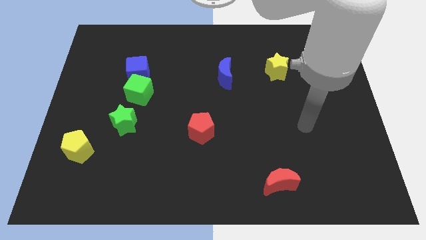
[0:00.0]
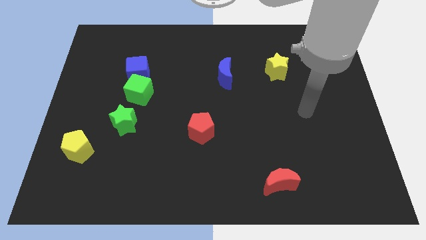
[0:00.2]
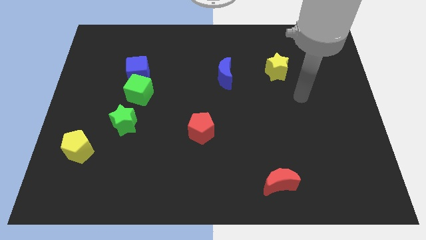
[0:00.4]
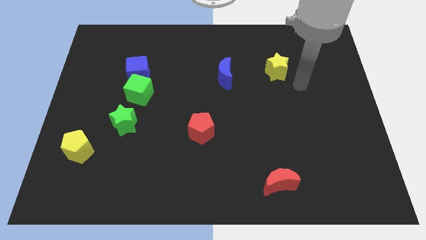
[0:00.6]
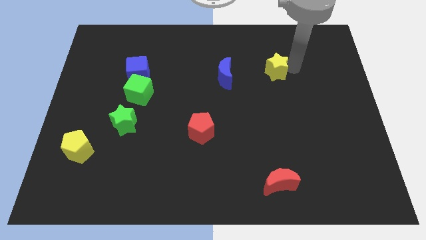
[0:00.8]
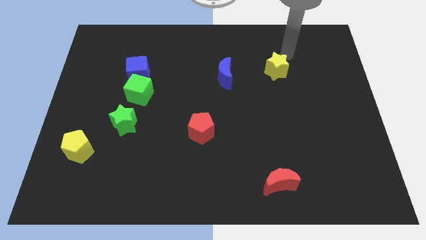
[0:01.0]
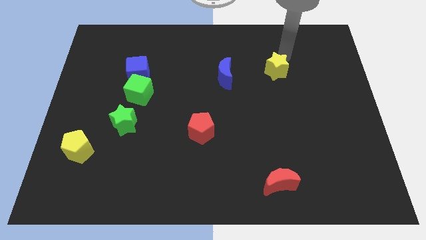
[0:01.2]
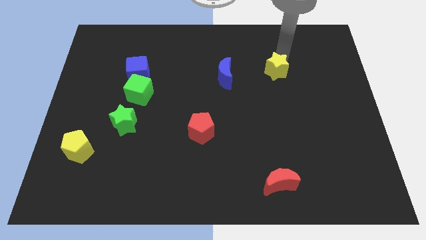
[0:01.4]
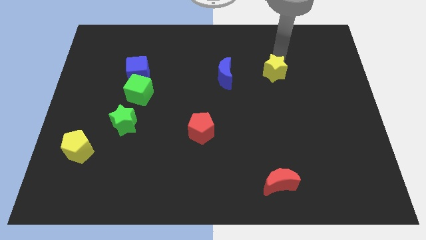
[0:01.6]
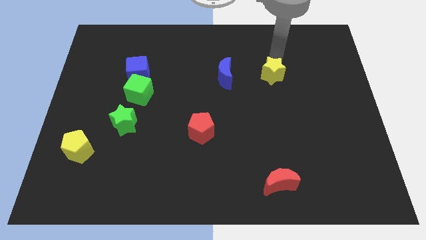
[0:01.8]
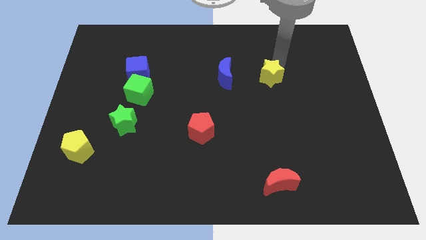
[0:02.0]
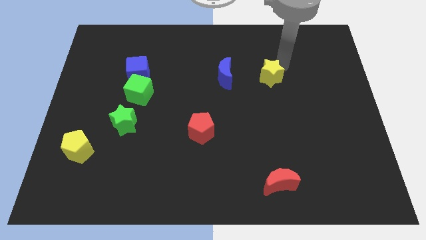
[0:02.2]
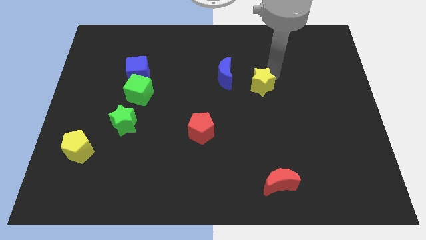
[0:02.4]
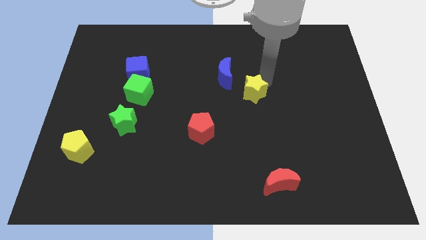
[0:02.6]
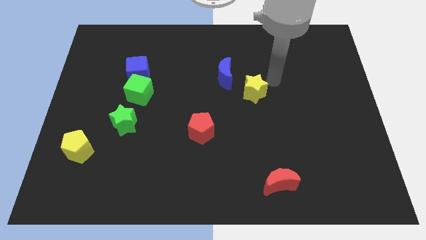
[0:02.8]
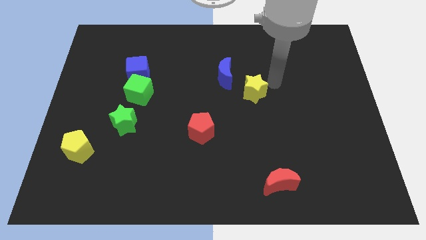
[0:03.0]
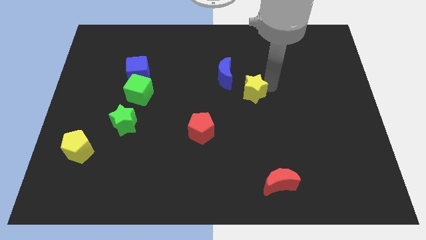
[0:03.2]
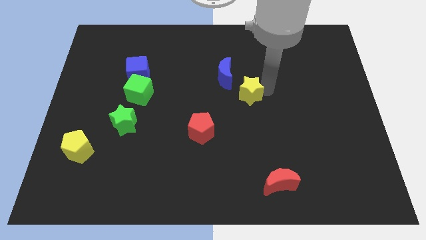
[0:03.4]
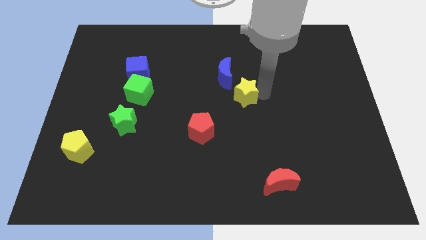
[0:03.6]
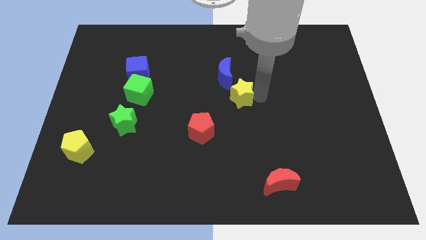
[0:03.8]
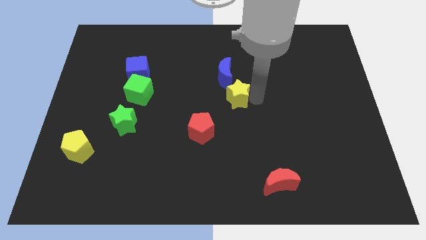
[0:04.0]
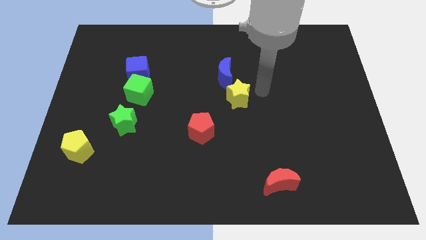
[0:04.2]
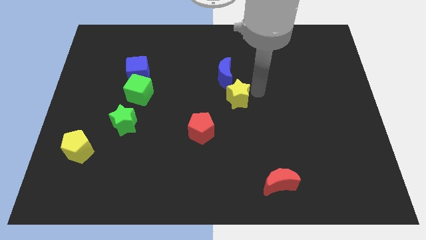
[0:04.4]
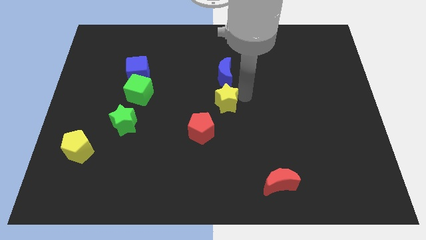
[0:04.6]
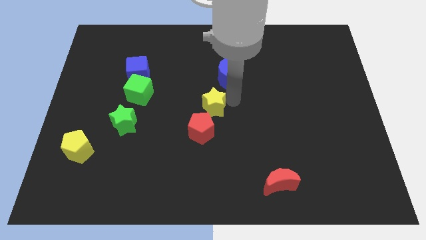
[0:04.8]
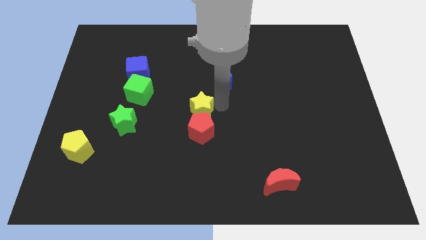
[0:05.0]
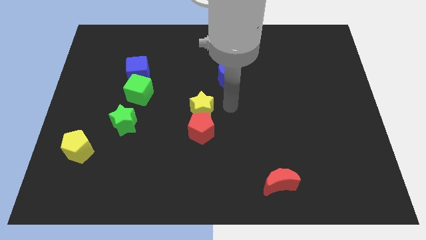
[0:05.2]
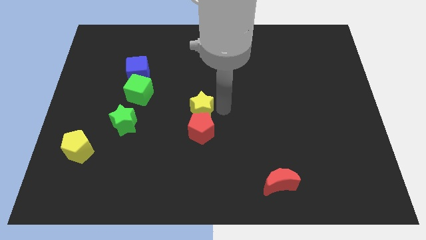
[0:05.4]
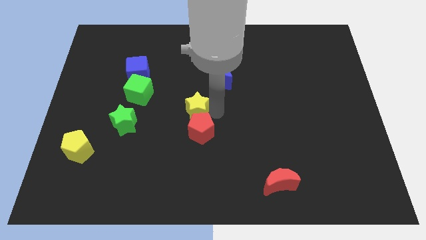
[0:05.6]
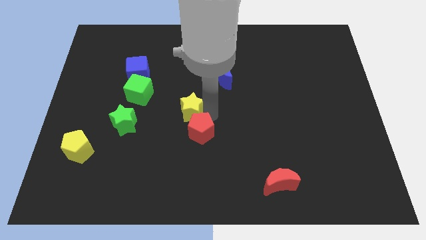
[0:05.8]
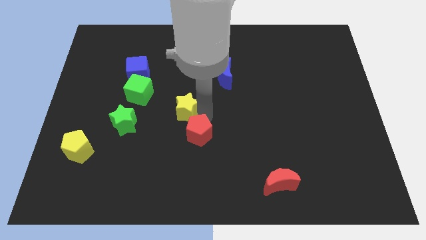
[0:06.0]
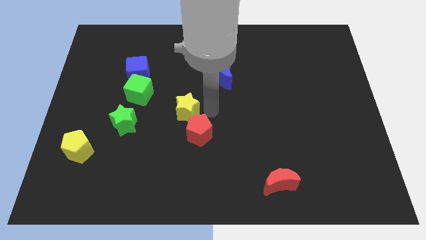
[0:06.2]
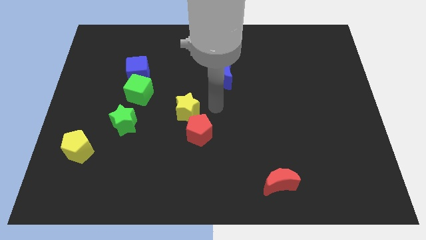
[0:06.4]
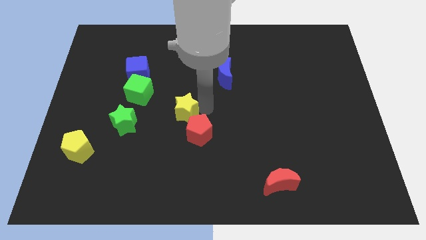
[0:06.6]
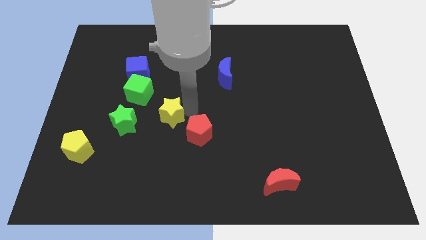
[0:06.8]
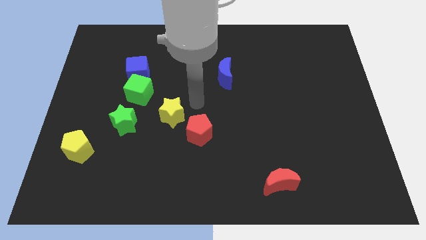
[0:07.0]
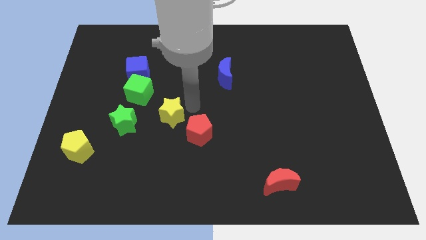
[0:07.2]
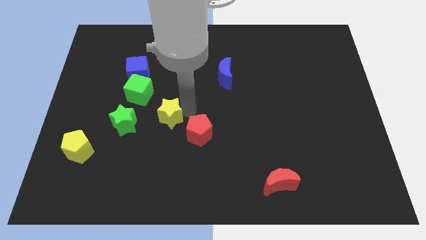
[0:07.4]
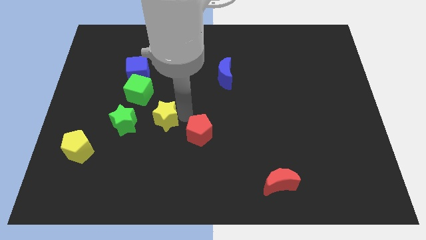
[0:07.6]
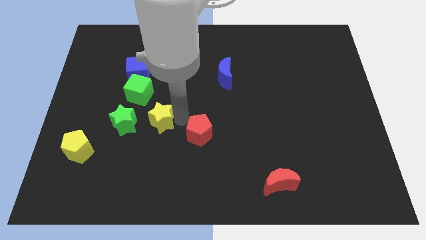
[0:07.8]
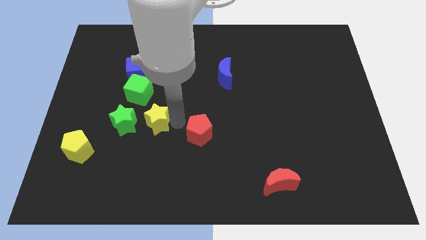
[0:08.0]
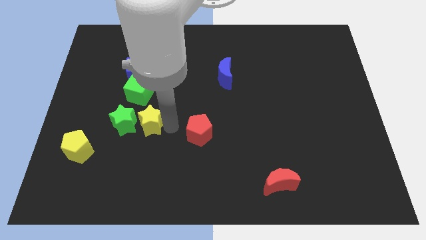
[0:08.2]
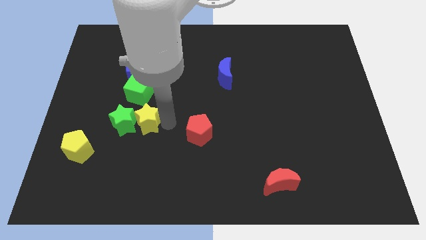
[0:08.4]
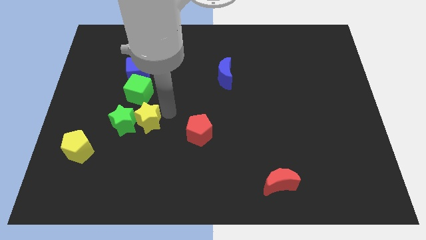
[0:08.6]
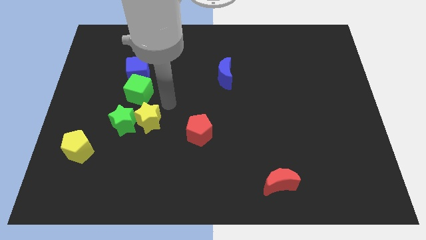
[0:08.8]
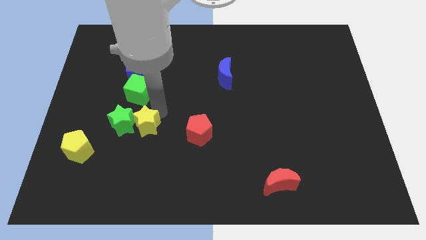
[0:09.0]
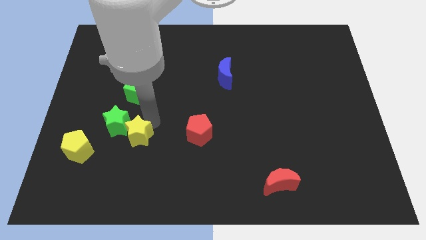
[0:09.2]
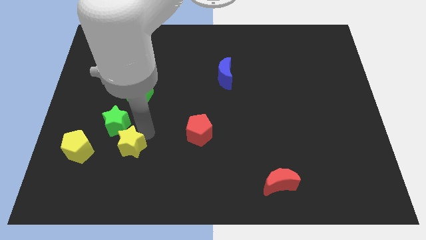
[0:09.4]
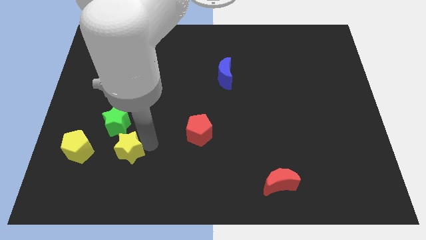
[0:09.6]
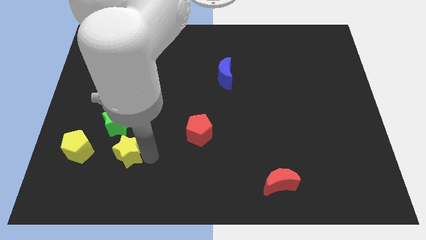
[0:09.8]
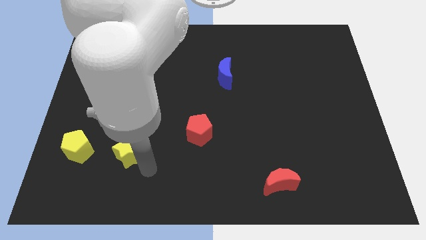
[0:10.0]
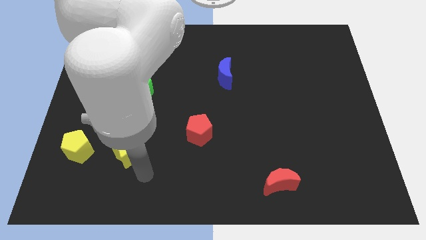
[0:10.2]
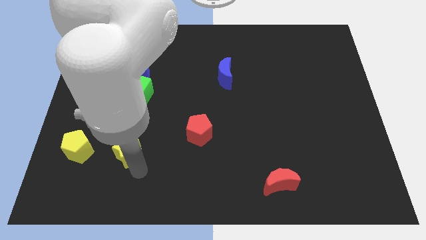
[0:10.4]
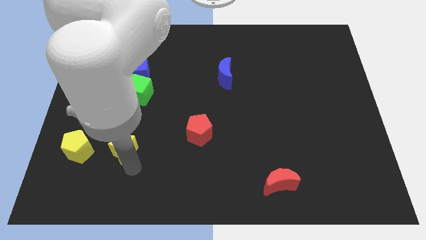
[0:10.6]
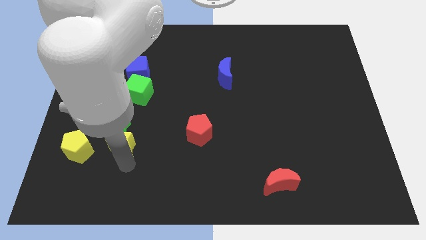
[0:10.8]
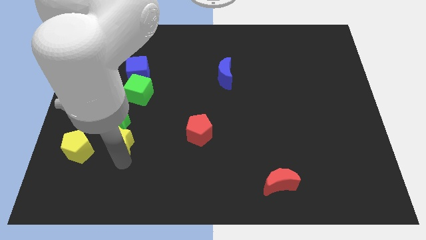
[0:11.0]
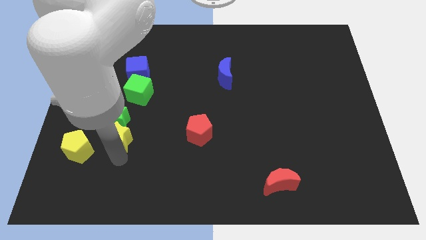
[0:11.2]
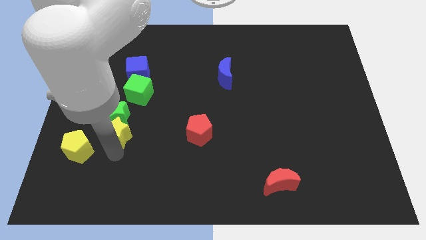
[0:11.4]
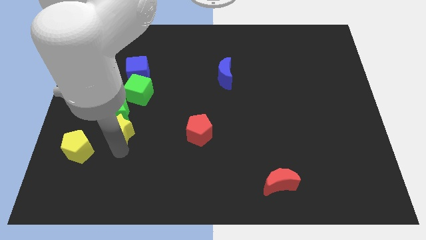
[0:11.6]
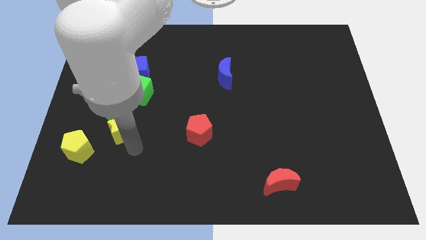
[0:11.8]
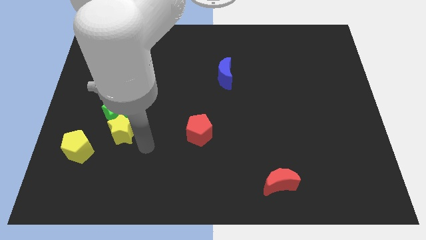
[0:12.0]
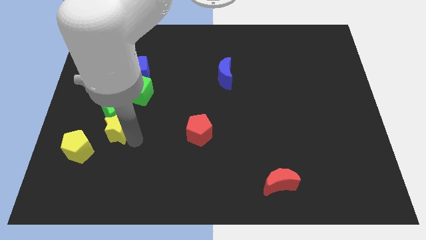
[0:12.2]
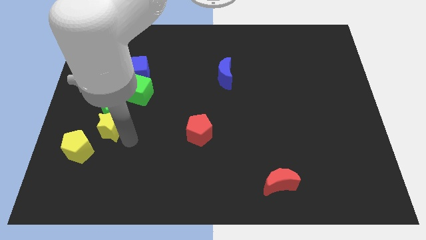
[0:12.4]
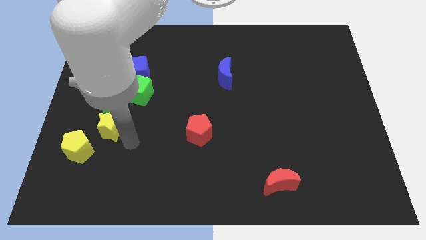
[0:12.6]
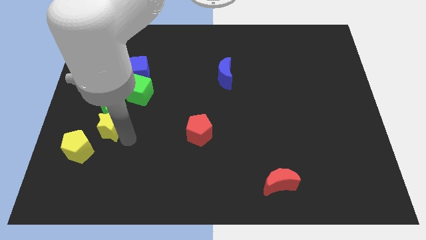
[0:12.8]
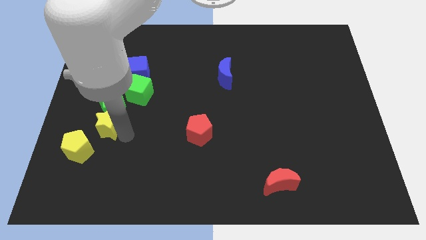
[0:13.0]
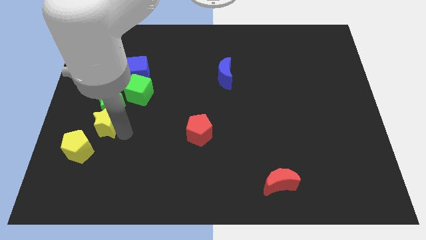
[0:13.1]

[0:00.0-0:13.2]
move the yellow star to the top side of the yellow pentagon

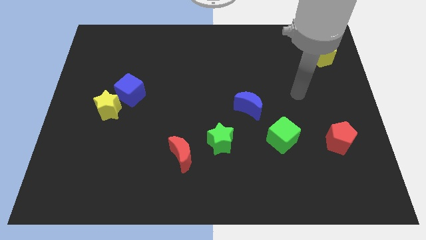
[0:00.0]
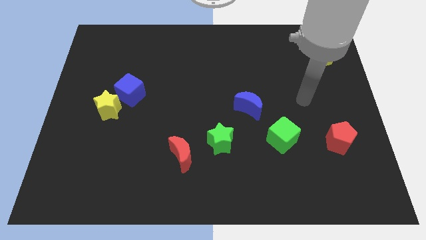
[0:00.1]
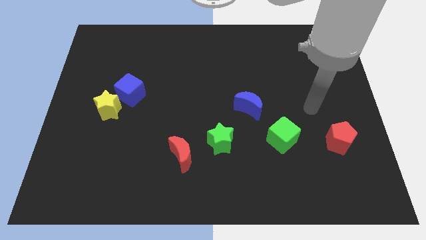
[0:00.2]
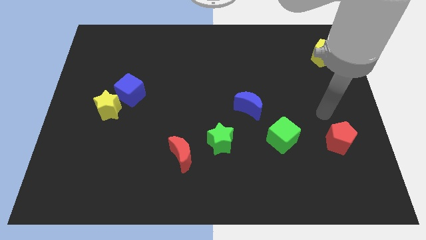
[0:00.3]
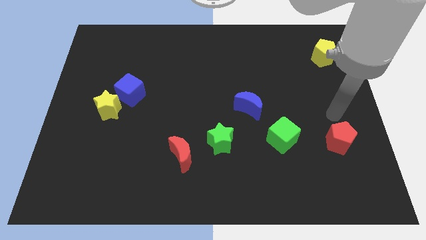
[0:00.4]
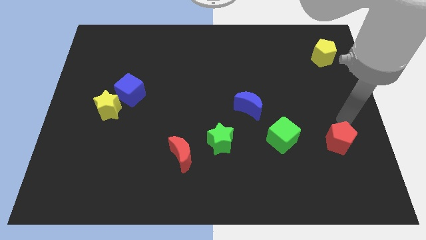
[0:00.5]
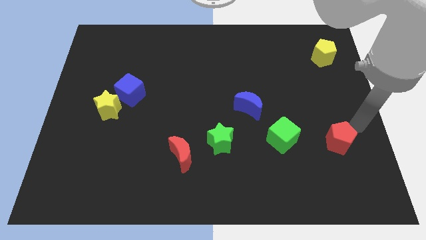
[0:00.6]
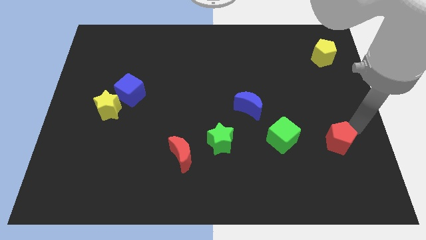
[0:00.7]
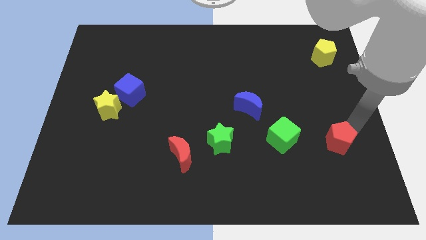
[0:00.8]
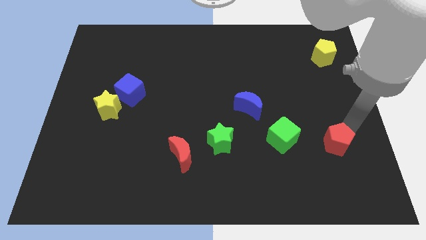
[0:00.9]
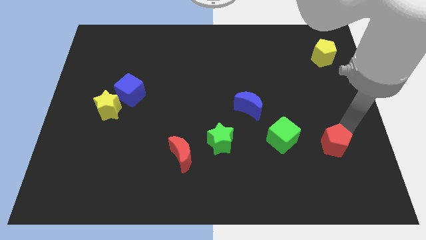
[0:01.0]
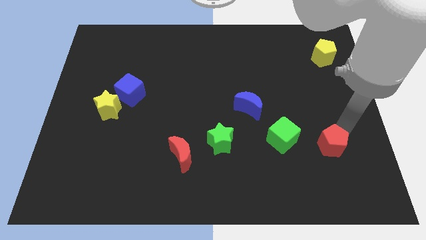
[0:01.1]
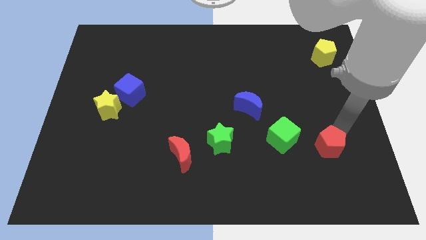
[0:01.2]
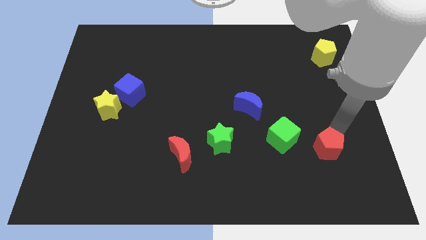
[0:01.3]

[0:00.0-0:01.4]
put the red pentagon diagonally down and to the right of the green cube
